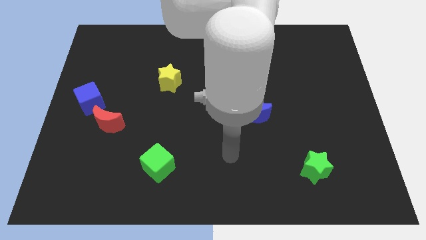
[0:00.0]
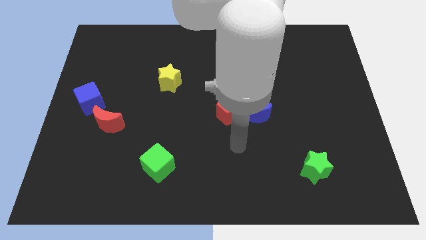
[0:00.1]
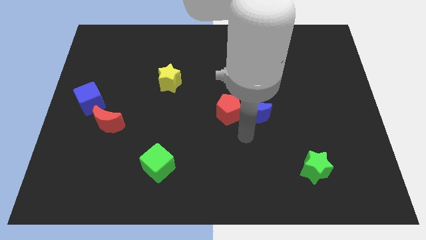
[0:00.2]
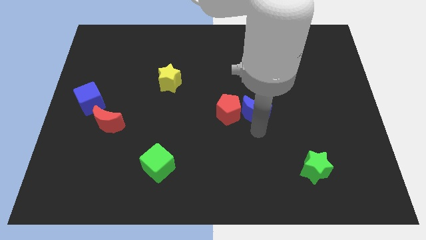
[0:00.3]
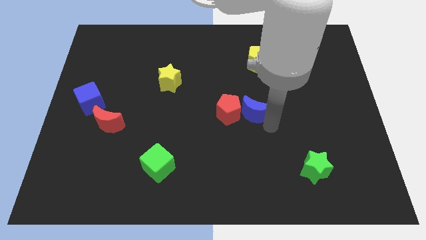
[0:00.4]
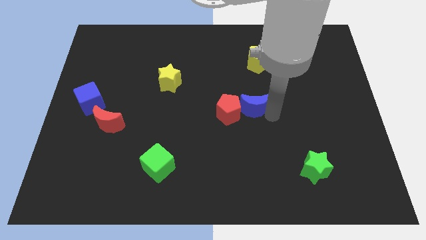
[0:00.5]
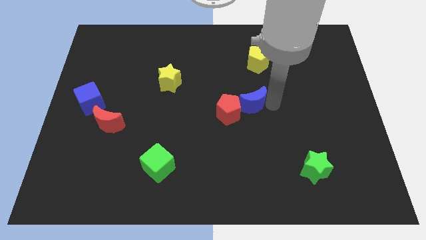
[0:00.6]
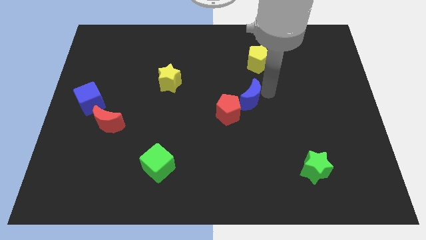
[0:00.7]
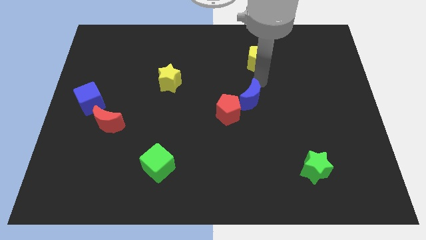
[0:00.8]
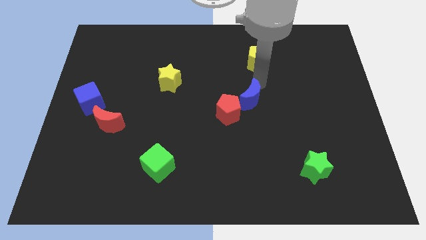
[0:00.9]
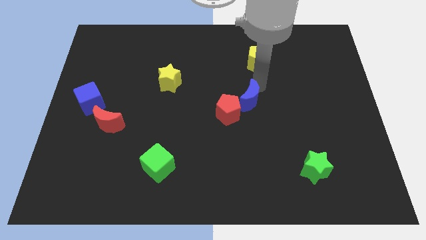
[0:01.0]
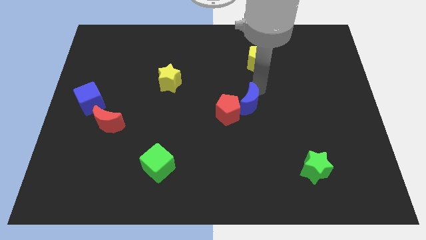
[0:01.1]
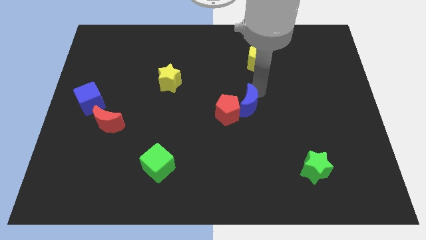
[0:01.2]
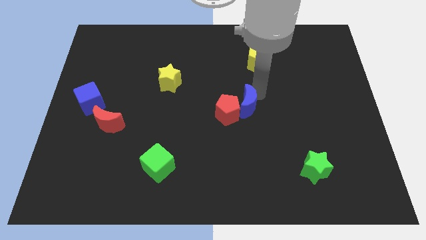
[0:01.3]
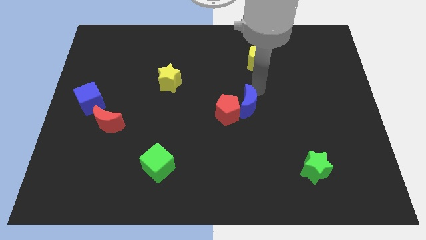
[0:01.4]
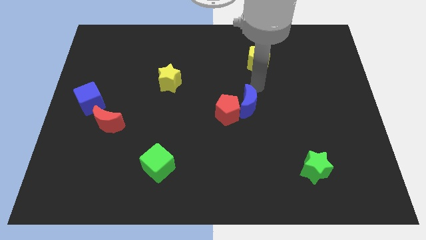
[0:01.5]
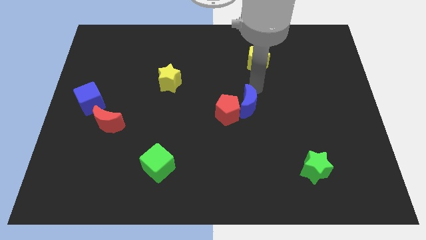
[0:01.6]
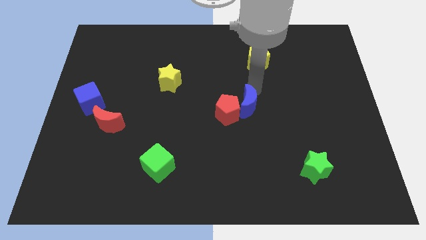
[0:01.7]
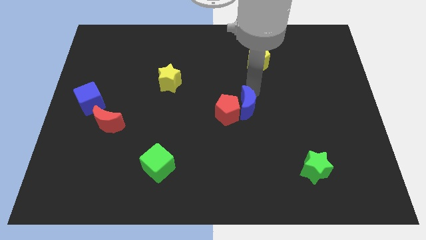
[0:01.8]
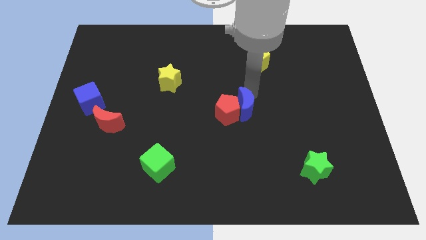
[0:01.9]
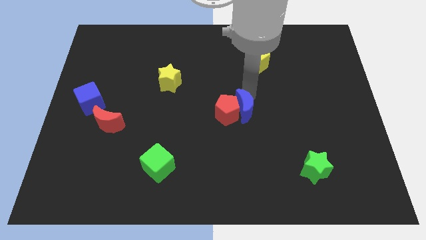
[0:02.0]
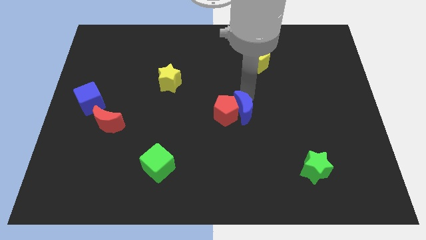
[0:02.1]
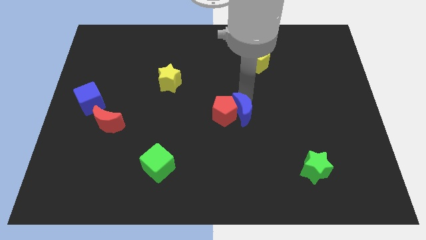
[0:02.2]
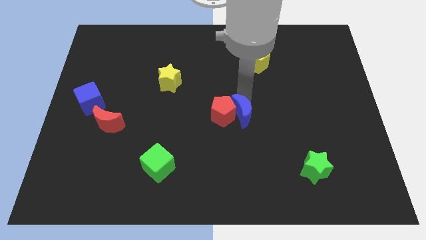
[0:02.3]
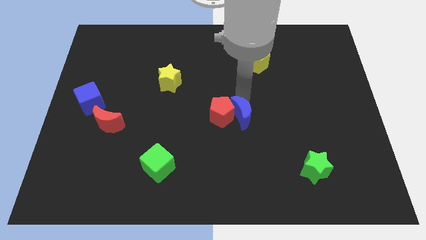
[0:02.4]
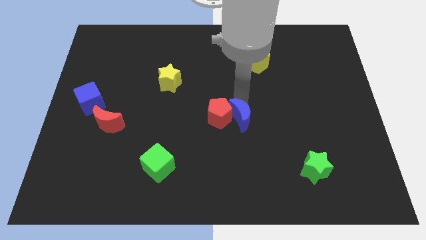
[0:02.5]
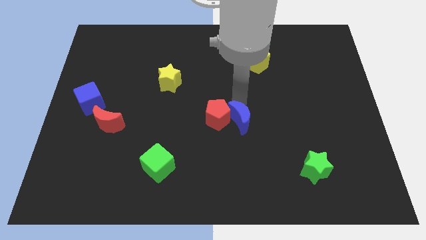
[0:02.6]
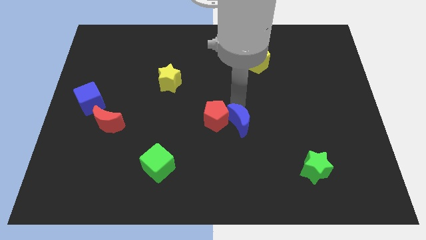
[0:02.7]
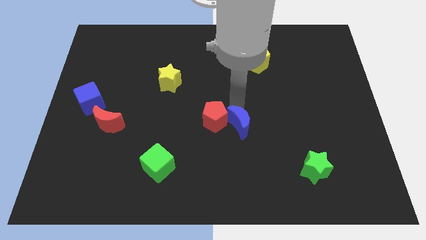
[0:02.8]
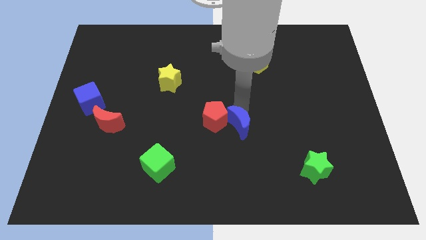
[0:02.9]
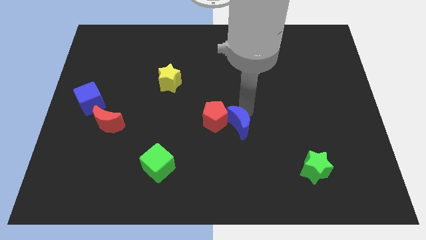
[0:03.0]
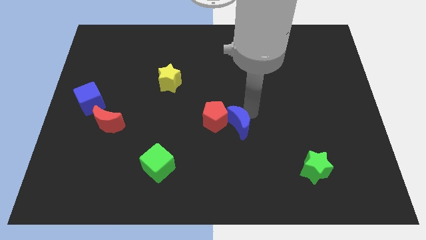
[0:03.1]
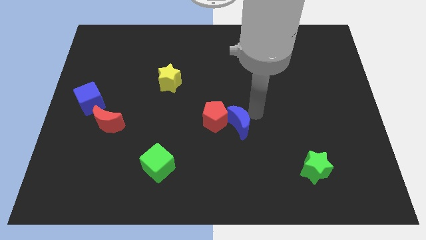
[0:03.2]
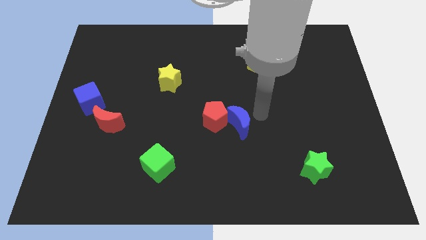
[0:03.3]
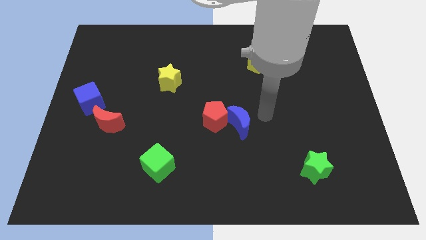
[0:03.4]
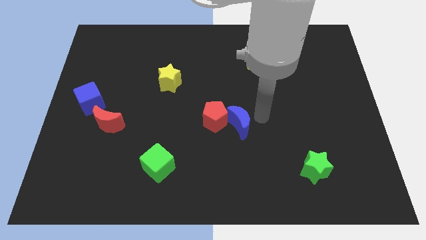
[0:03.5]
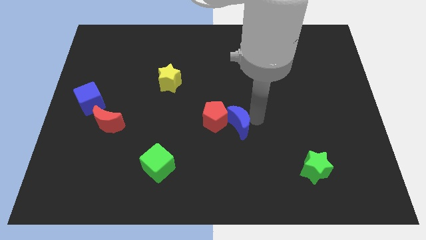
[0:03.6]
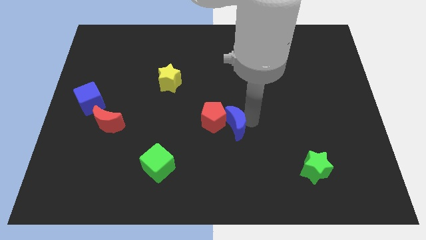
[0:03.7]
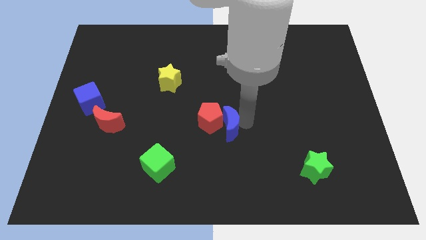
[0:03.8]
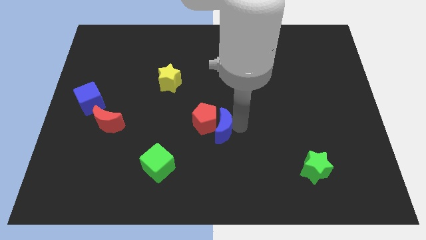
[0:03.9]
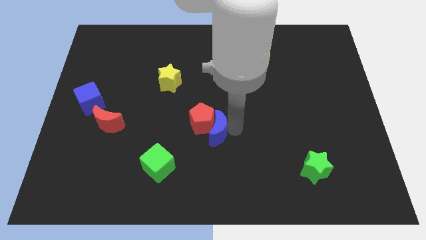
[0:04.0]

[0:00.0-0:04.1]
slightly push the blue moon to the left

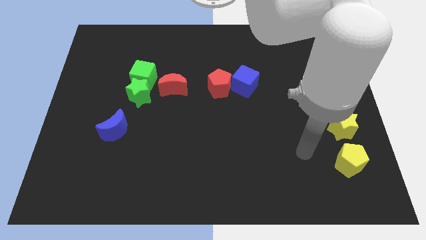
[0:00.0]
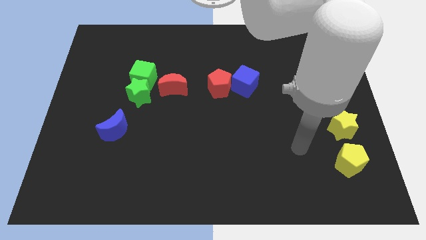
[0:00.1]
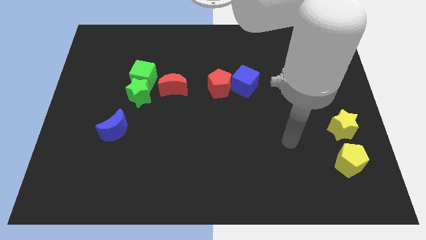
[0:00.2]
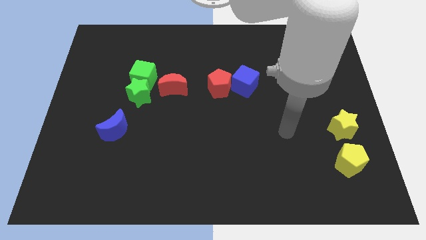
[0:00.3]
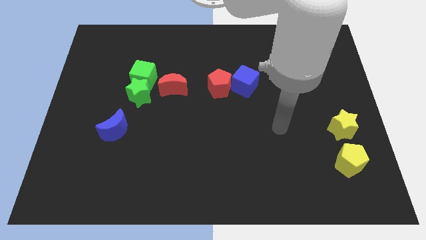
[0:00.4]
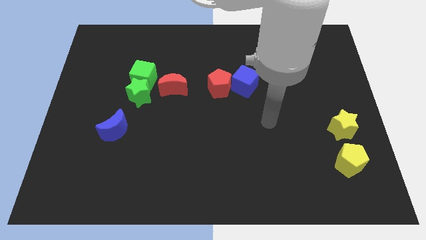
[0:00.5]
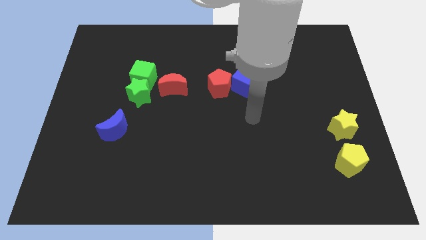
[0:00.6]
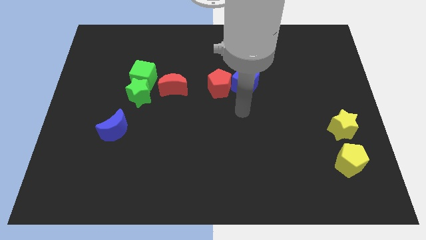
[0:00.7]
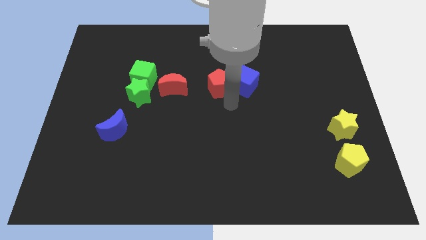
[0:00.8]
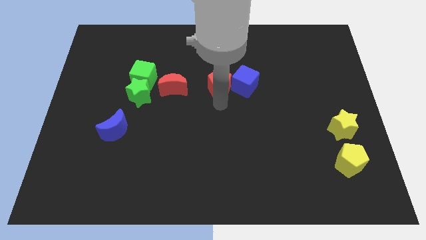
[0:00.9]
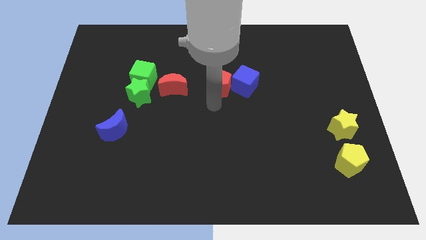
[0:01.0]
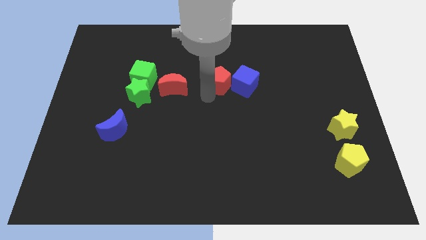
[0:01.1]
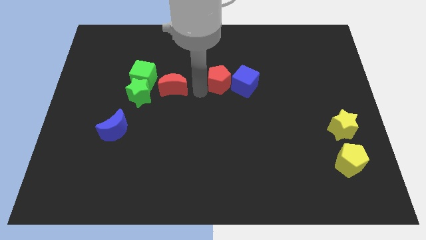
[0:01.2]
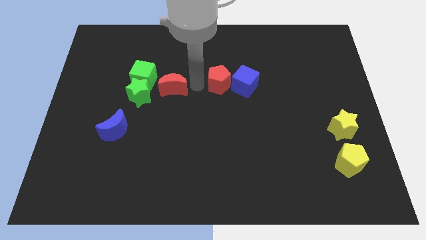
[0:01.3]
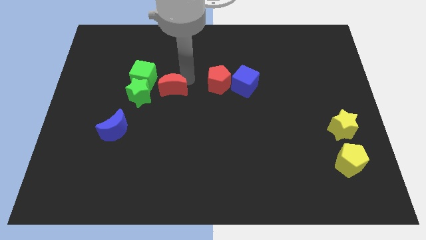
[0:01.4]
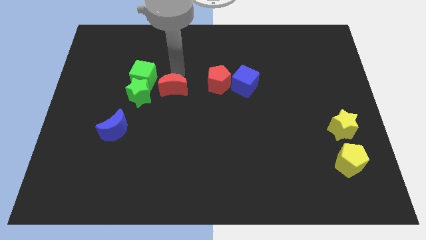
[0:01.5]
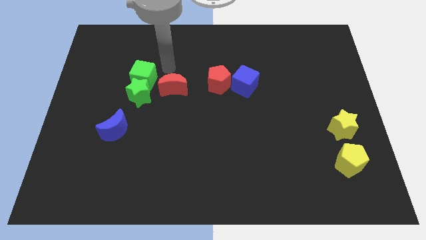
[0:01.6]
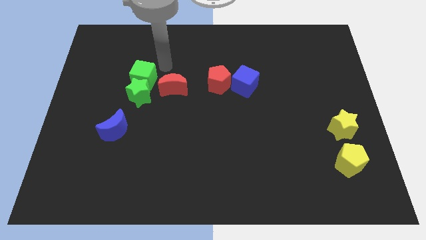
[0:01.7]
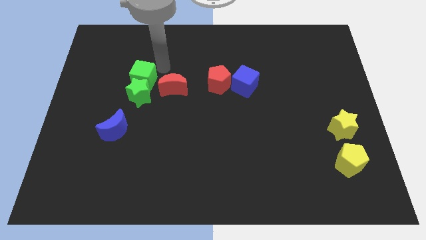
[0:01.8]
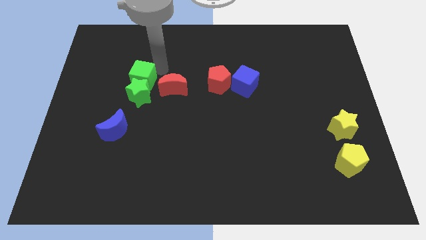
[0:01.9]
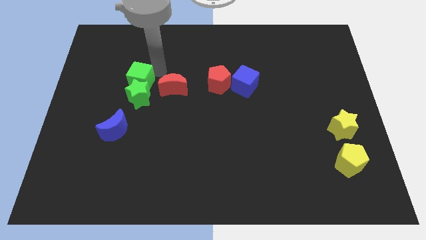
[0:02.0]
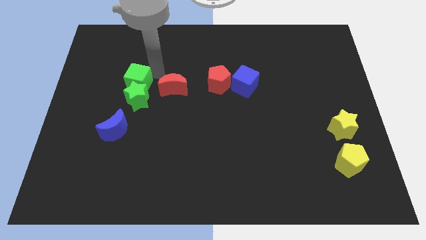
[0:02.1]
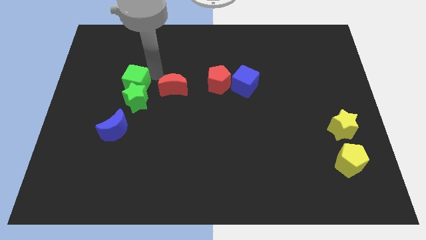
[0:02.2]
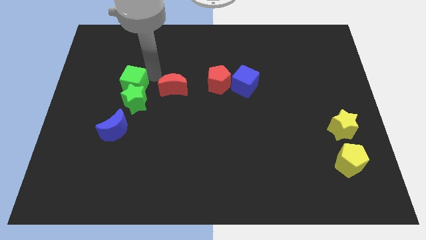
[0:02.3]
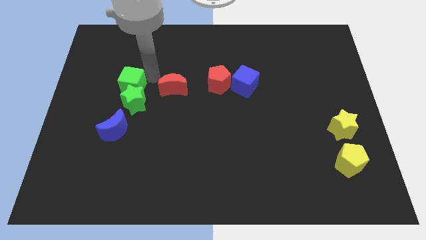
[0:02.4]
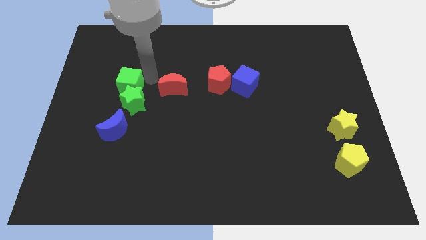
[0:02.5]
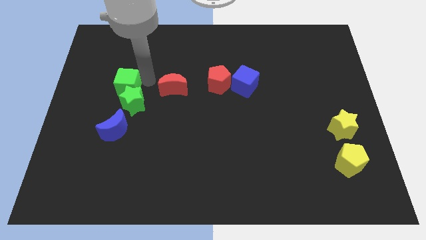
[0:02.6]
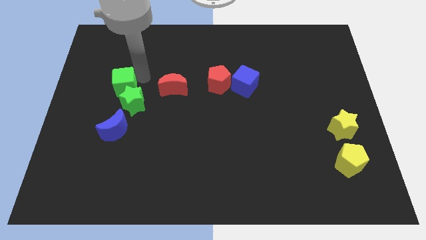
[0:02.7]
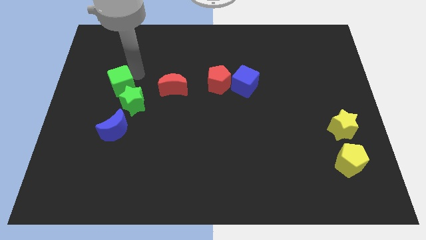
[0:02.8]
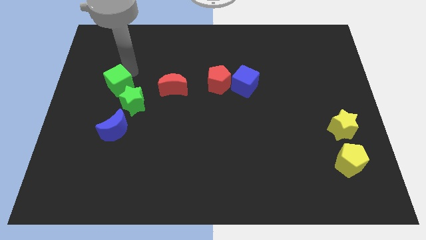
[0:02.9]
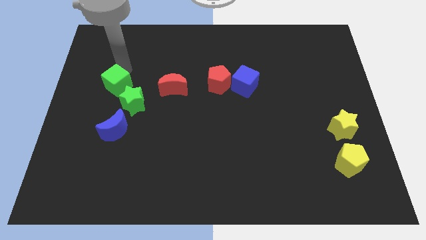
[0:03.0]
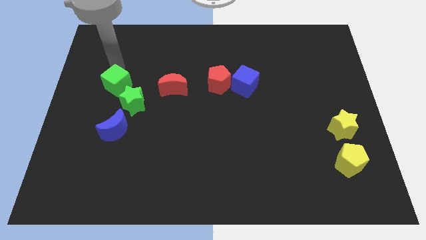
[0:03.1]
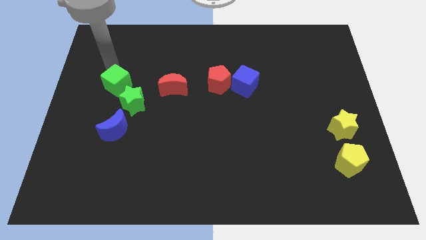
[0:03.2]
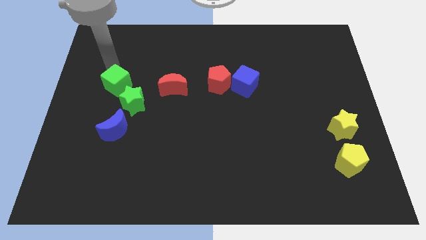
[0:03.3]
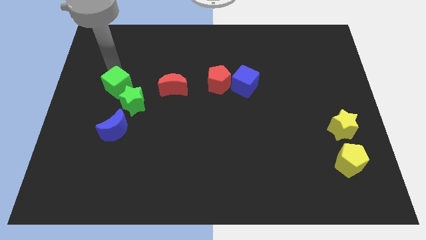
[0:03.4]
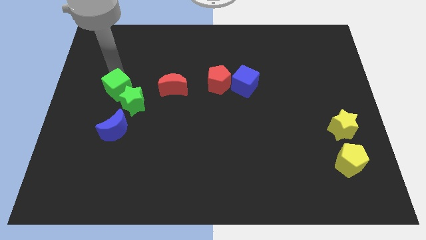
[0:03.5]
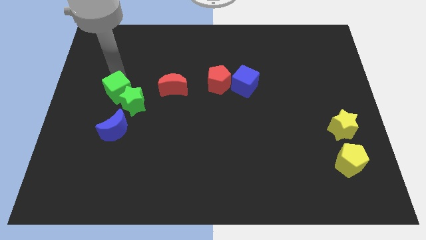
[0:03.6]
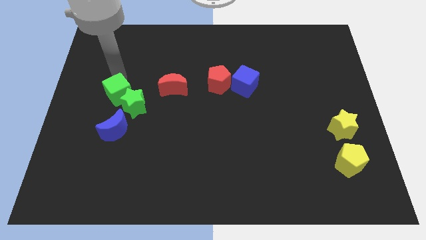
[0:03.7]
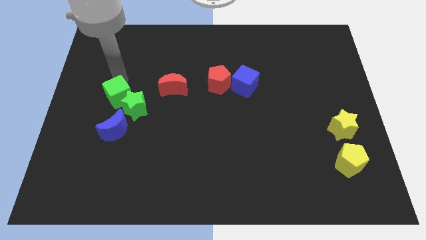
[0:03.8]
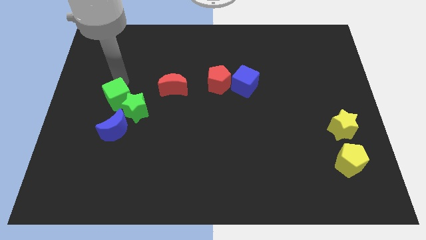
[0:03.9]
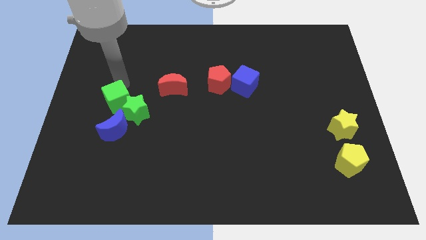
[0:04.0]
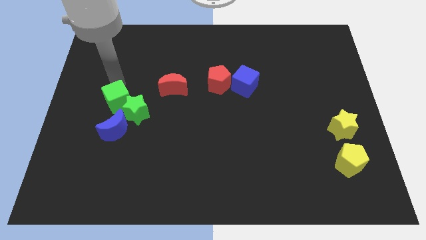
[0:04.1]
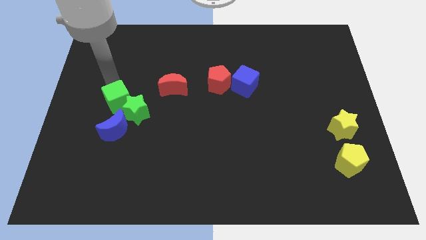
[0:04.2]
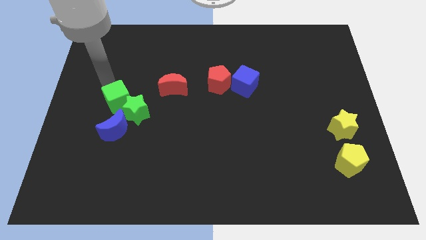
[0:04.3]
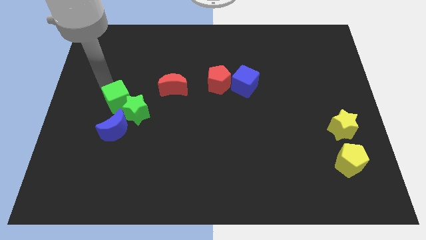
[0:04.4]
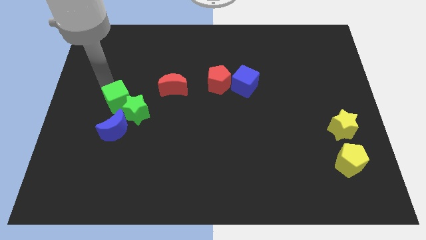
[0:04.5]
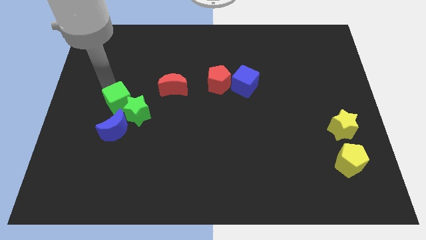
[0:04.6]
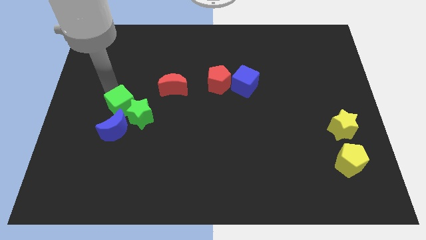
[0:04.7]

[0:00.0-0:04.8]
slide the green cube a bit down
